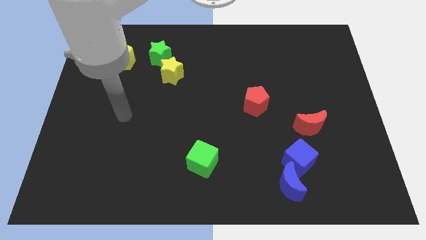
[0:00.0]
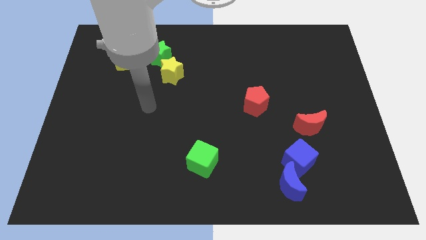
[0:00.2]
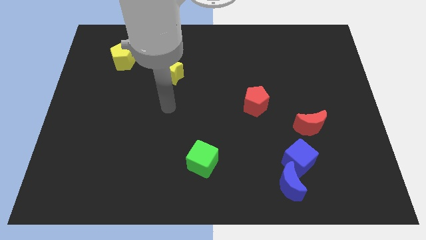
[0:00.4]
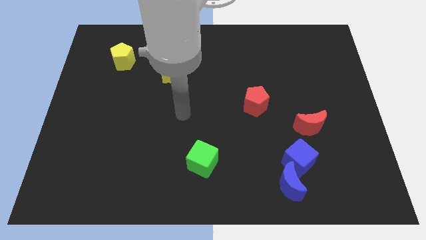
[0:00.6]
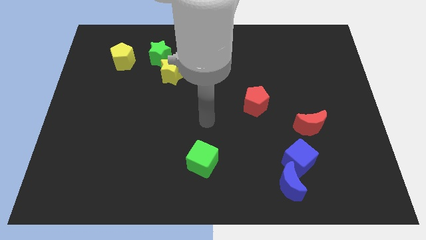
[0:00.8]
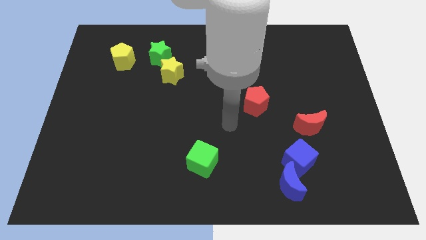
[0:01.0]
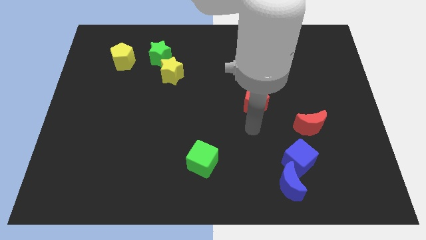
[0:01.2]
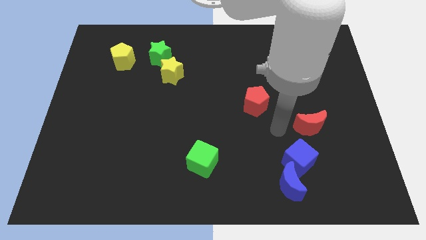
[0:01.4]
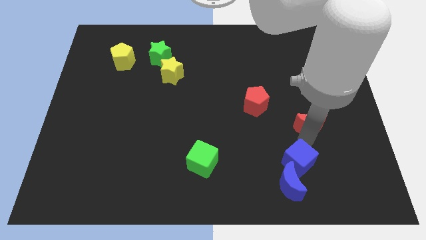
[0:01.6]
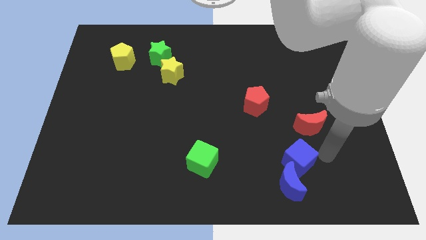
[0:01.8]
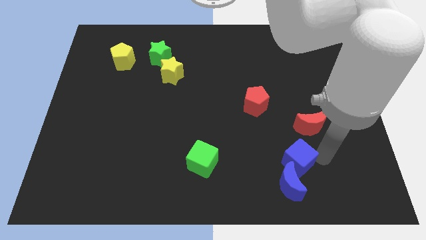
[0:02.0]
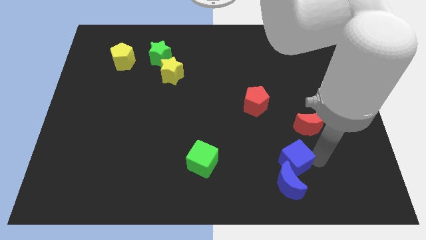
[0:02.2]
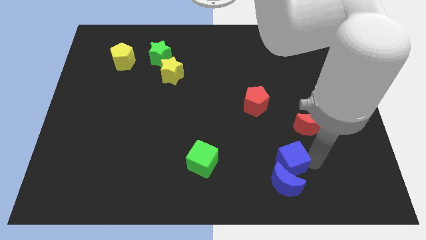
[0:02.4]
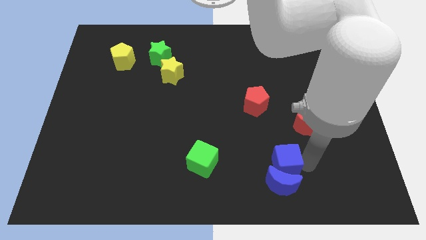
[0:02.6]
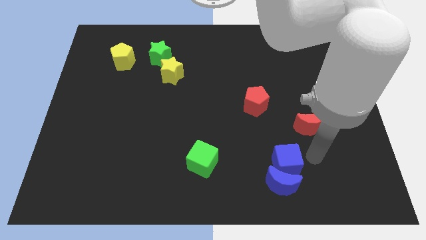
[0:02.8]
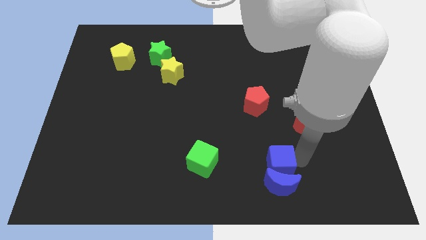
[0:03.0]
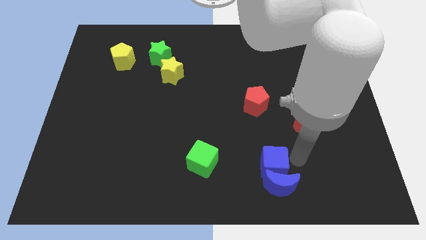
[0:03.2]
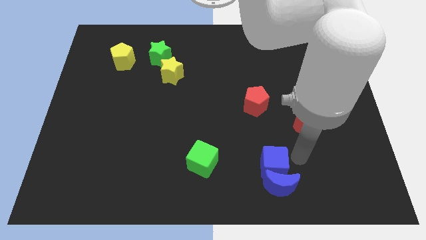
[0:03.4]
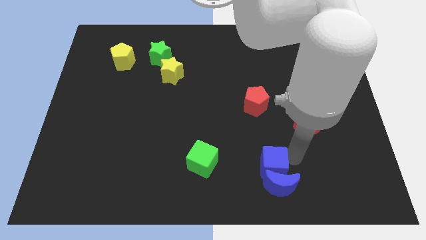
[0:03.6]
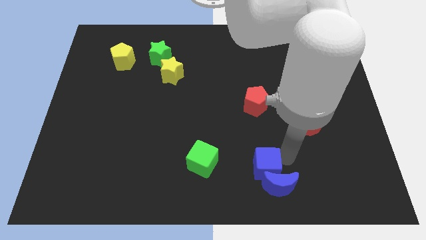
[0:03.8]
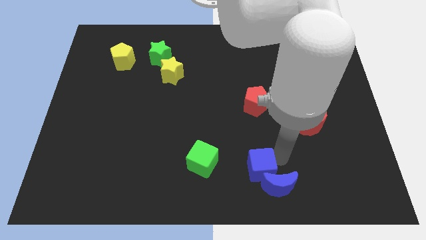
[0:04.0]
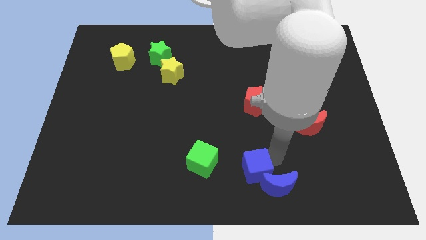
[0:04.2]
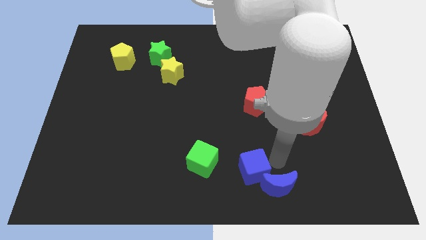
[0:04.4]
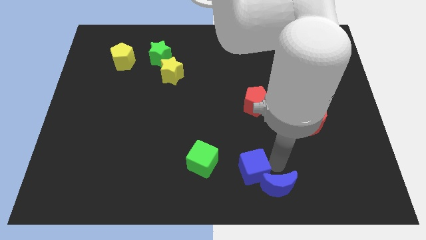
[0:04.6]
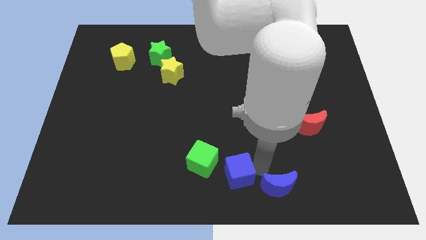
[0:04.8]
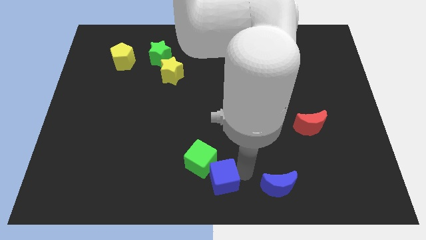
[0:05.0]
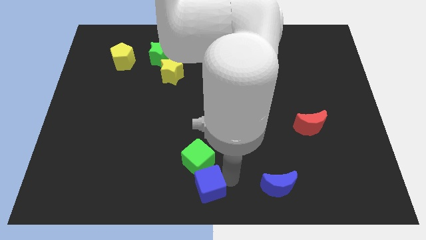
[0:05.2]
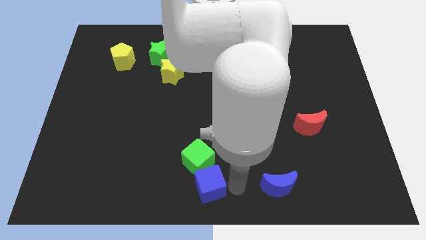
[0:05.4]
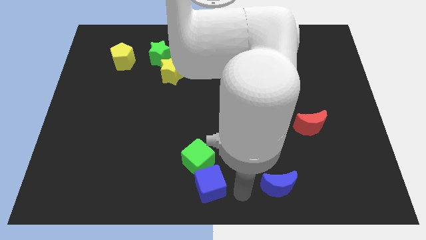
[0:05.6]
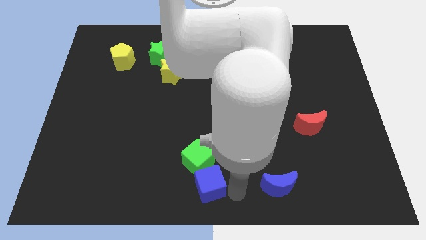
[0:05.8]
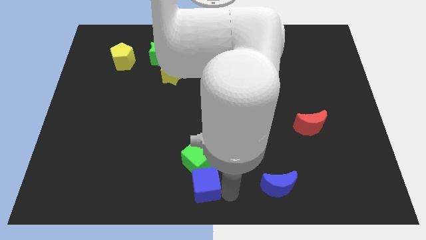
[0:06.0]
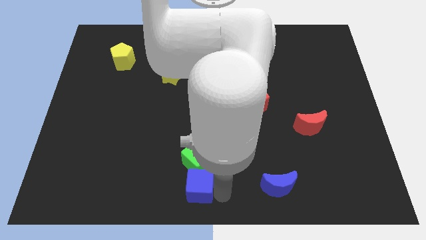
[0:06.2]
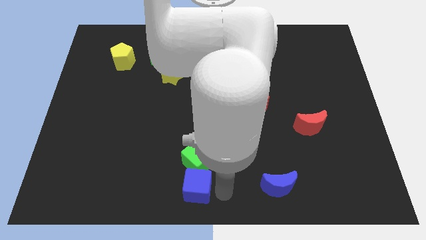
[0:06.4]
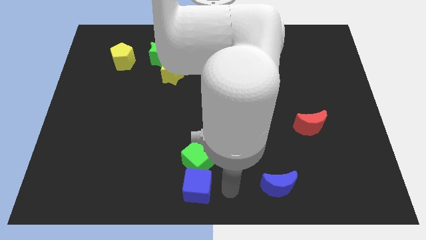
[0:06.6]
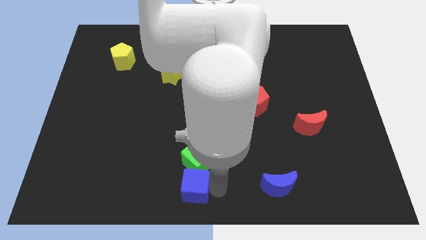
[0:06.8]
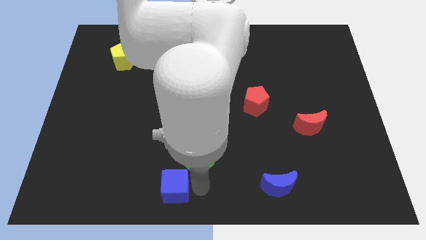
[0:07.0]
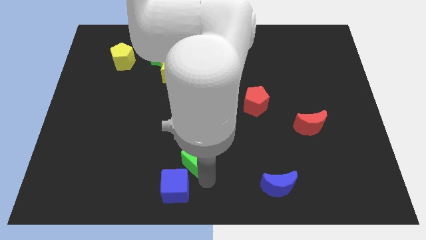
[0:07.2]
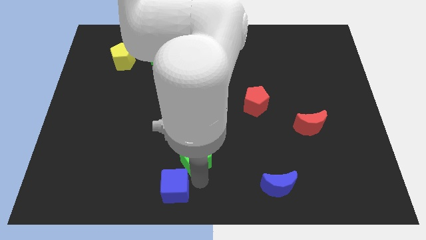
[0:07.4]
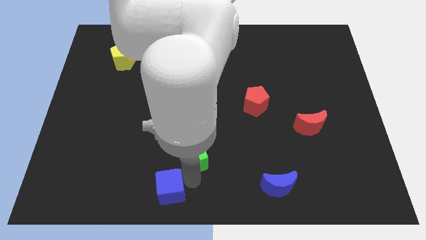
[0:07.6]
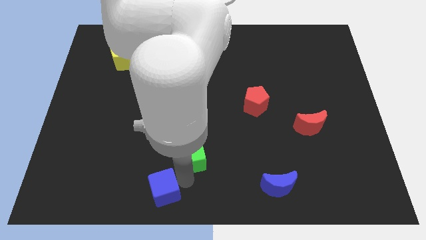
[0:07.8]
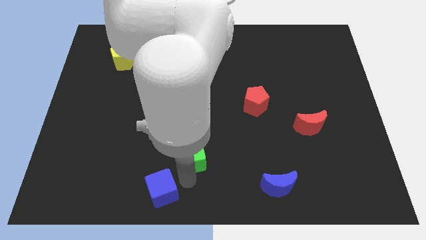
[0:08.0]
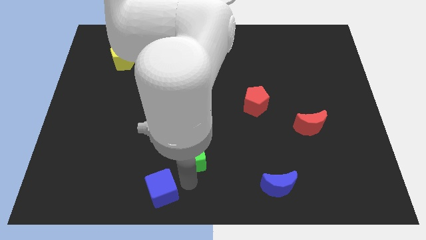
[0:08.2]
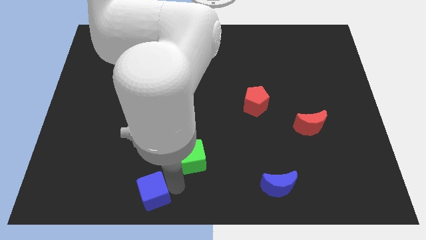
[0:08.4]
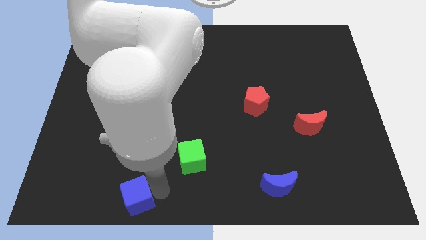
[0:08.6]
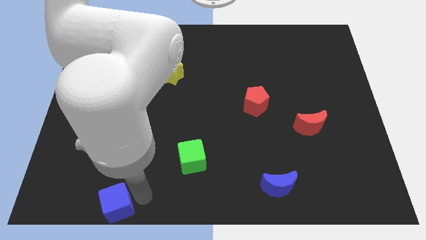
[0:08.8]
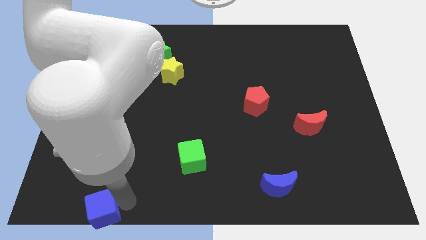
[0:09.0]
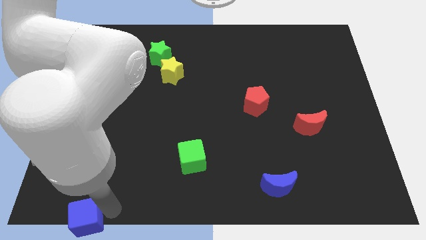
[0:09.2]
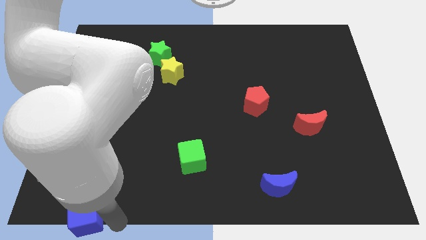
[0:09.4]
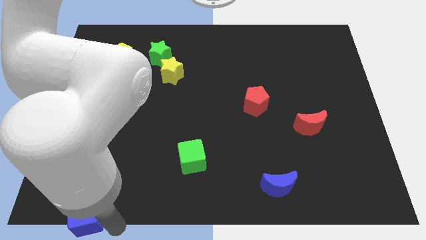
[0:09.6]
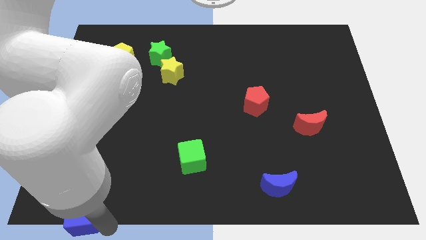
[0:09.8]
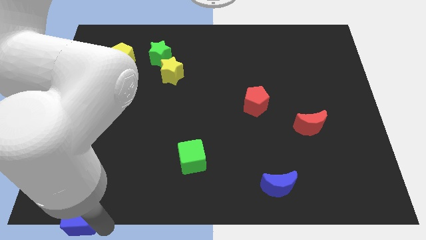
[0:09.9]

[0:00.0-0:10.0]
move the blue cube to the bottom left of the board

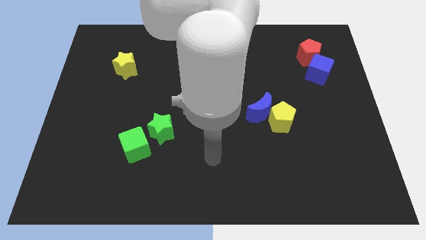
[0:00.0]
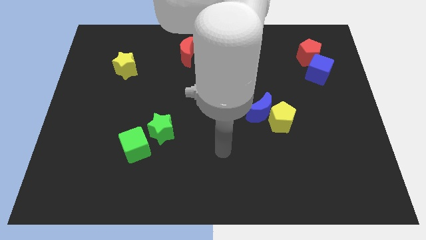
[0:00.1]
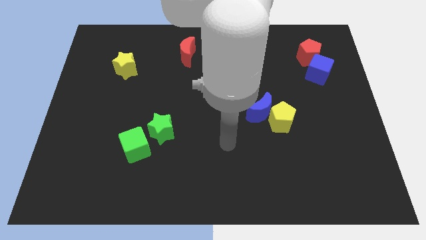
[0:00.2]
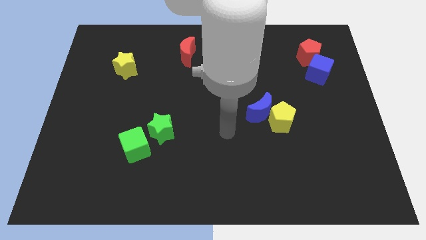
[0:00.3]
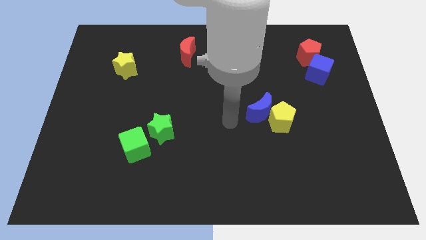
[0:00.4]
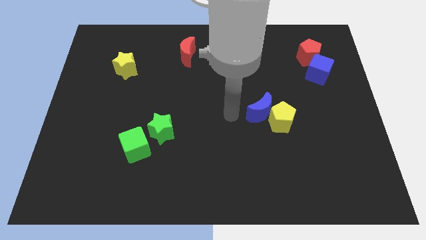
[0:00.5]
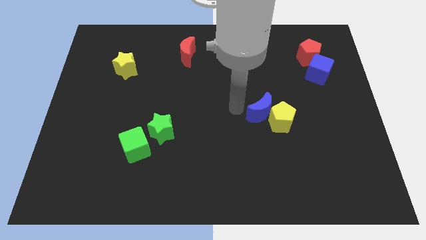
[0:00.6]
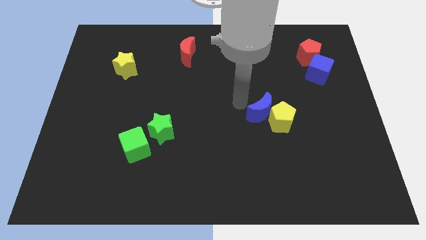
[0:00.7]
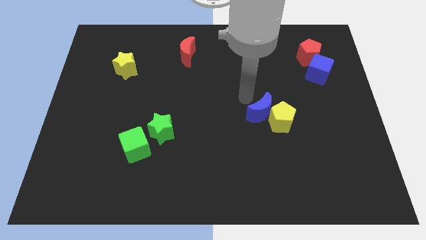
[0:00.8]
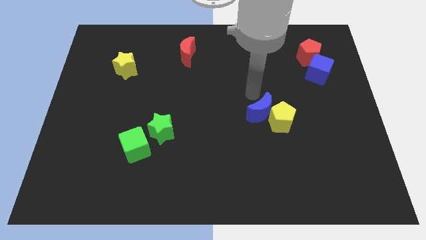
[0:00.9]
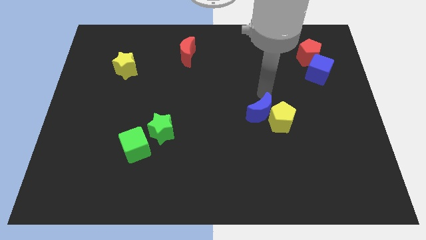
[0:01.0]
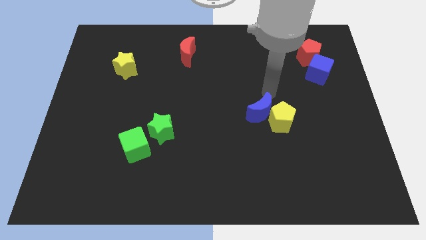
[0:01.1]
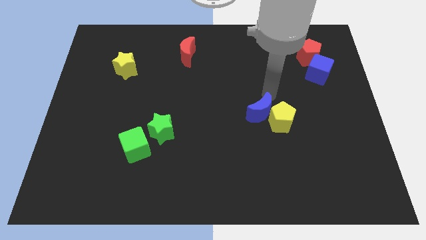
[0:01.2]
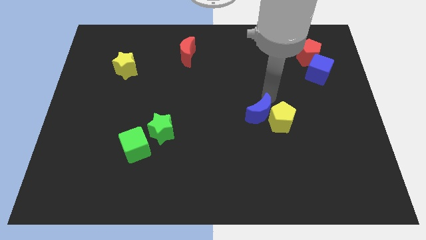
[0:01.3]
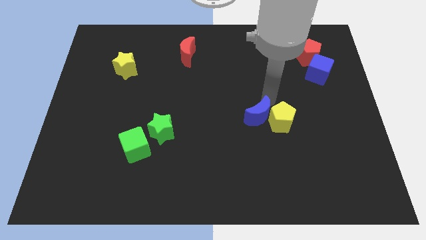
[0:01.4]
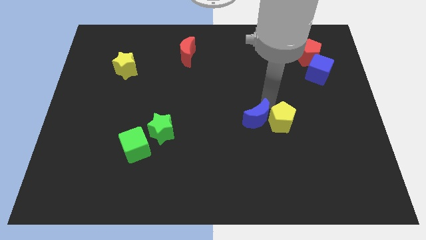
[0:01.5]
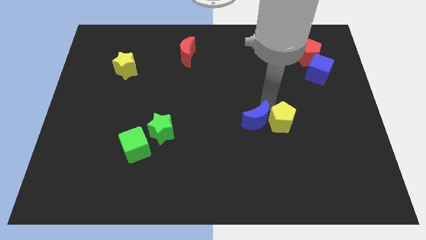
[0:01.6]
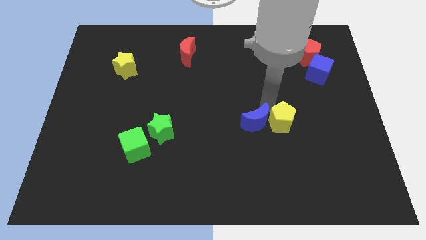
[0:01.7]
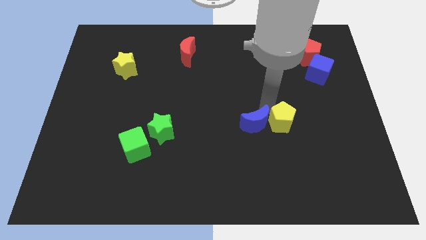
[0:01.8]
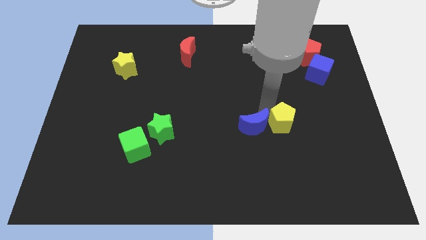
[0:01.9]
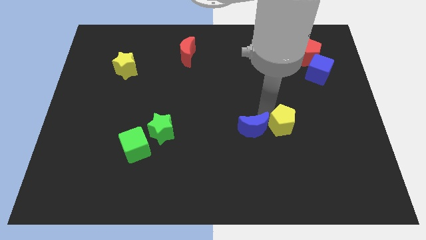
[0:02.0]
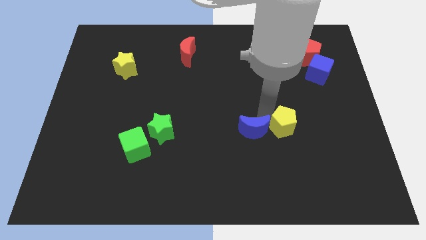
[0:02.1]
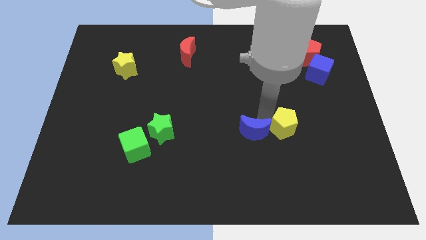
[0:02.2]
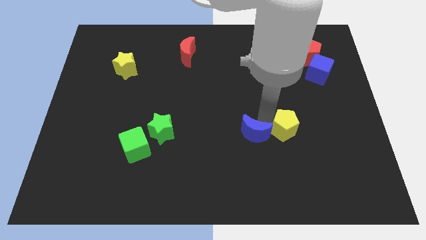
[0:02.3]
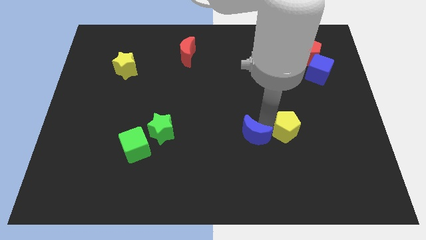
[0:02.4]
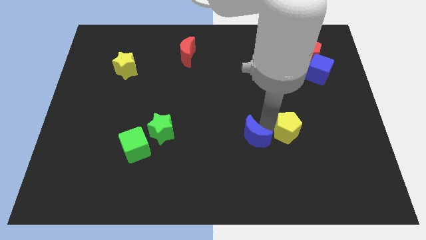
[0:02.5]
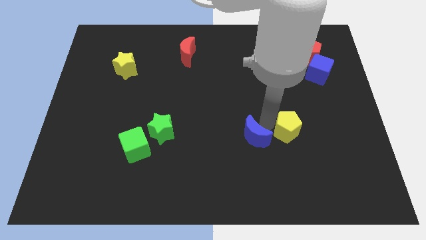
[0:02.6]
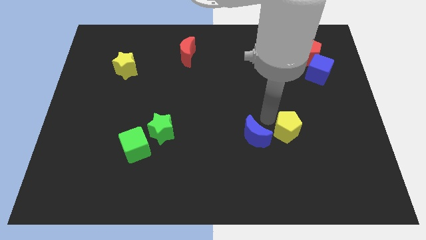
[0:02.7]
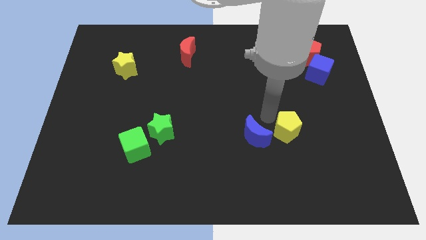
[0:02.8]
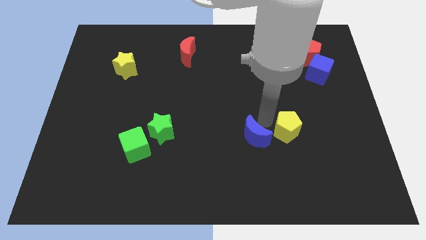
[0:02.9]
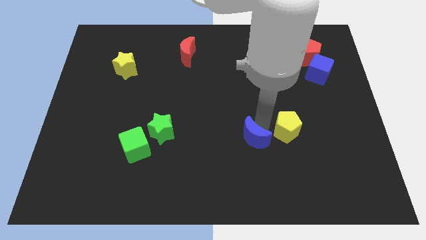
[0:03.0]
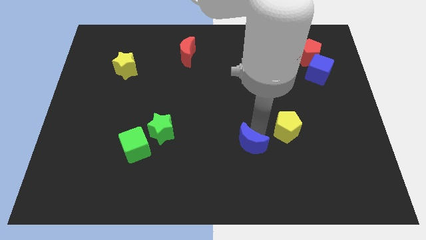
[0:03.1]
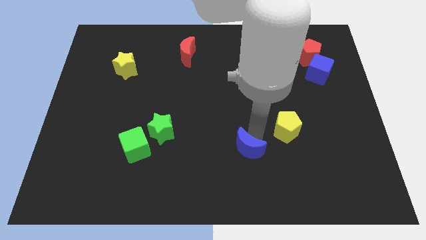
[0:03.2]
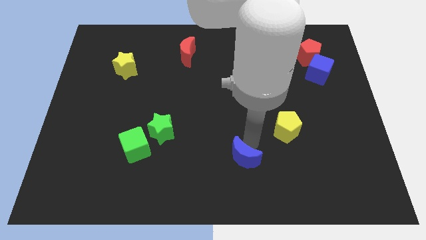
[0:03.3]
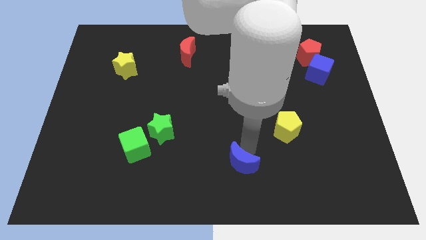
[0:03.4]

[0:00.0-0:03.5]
put the blue moon to the bottom
